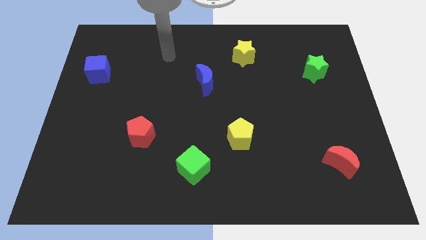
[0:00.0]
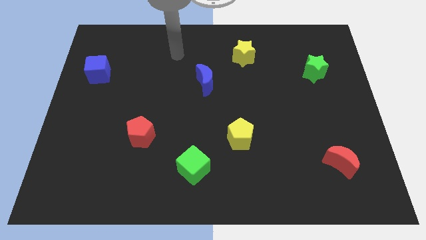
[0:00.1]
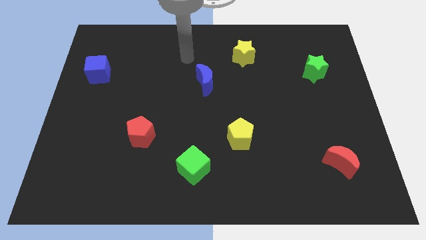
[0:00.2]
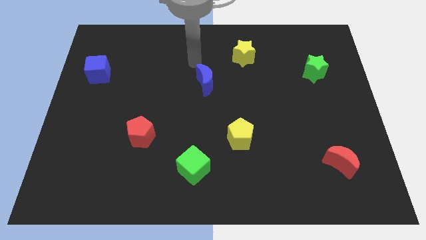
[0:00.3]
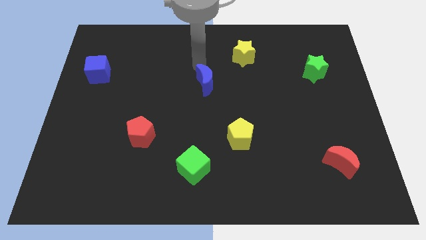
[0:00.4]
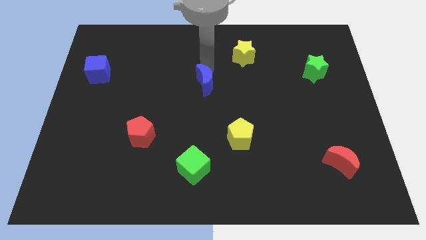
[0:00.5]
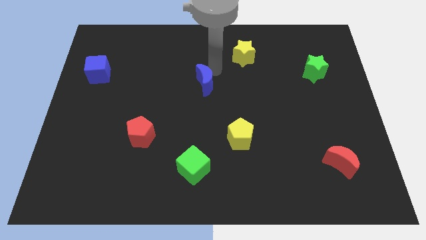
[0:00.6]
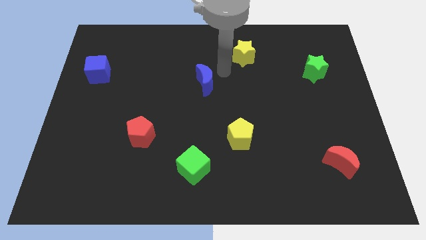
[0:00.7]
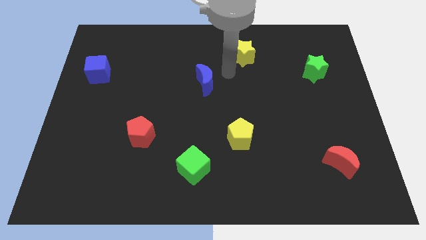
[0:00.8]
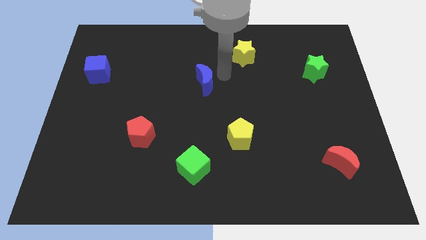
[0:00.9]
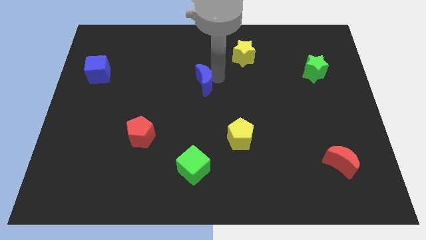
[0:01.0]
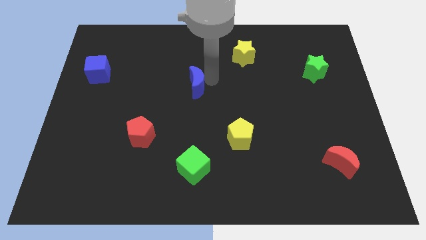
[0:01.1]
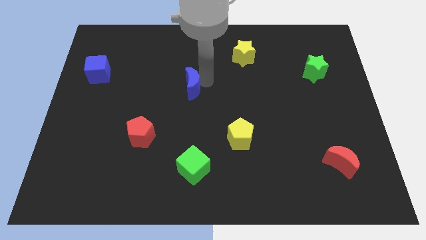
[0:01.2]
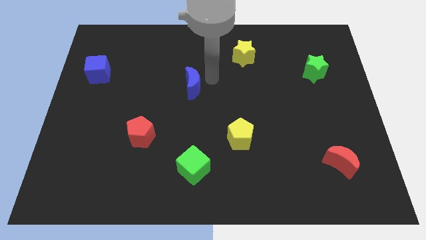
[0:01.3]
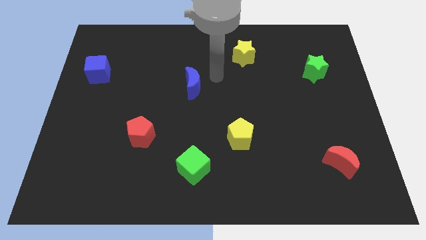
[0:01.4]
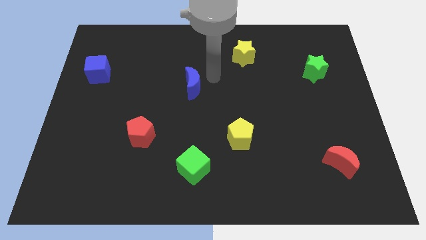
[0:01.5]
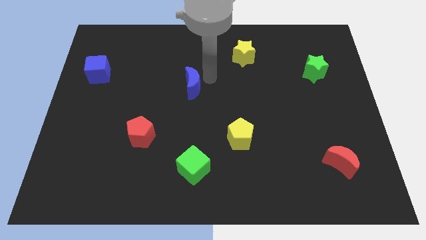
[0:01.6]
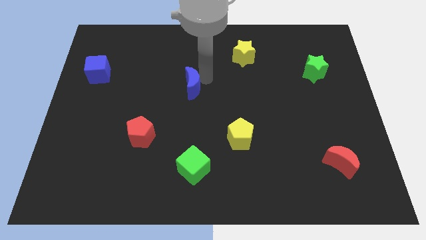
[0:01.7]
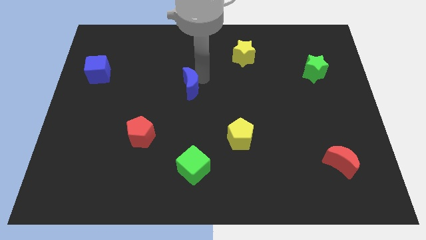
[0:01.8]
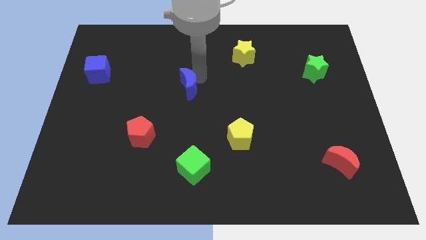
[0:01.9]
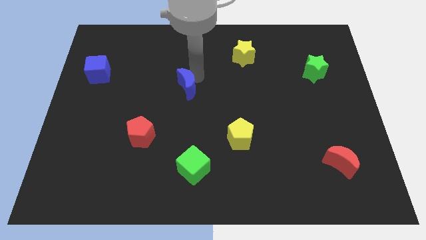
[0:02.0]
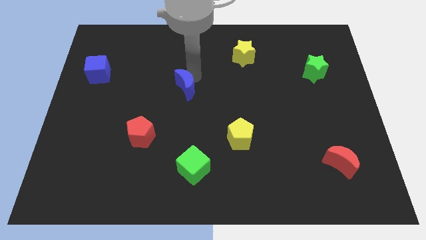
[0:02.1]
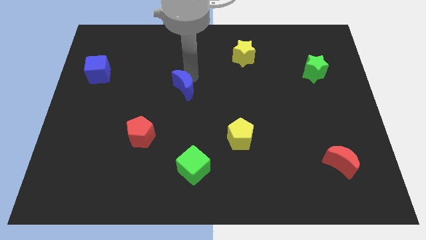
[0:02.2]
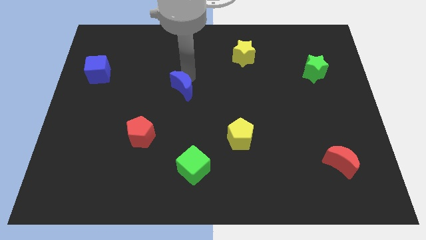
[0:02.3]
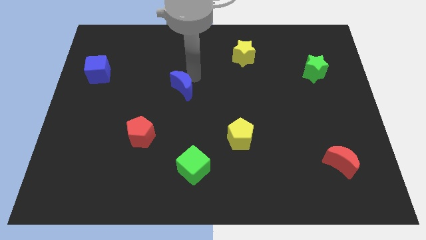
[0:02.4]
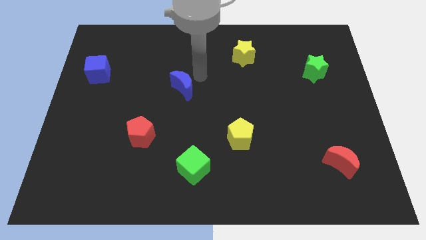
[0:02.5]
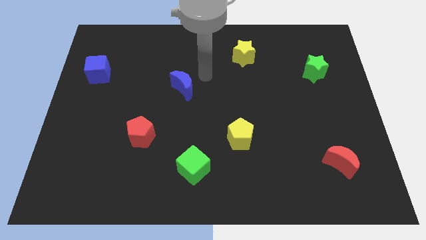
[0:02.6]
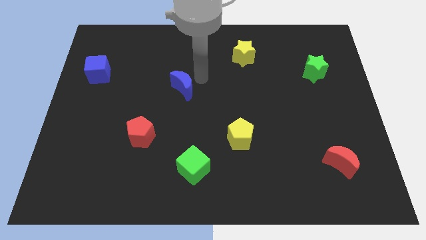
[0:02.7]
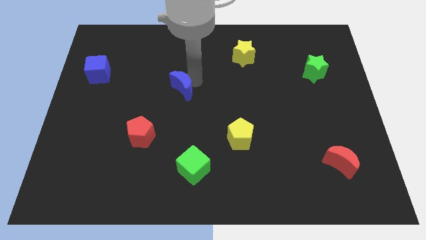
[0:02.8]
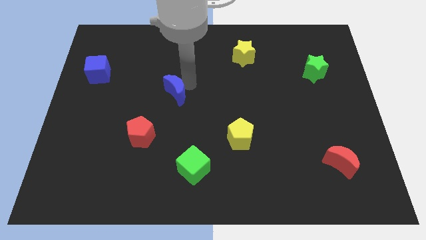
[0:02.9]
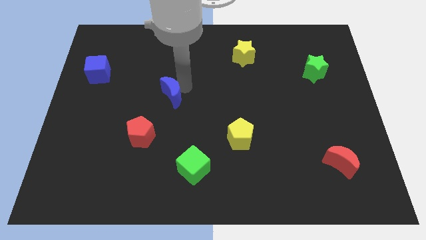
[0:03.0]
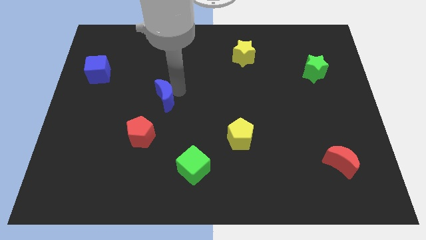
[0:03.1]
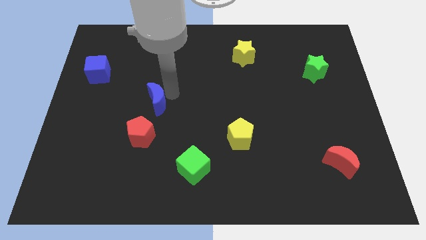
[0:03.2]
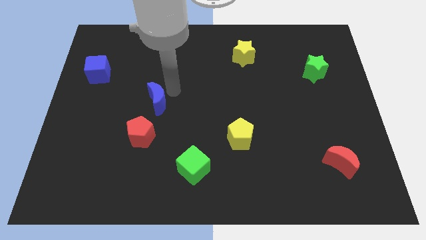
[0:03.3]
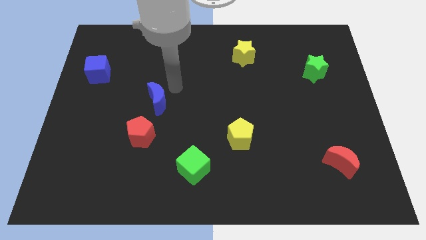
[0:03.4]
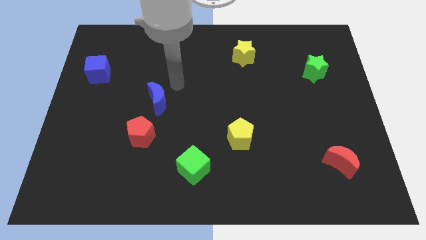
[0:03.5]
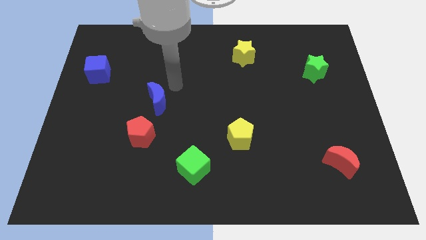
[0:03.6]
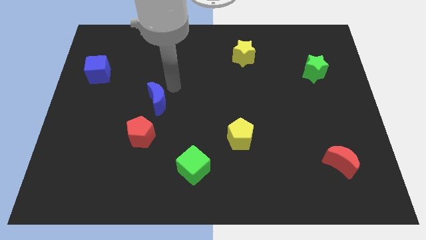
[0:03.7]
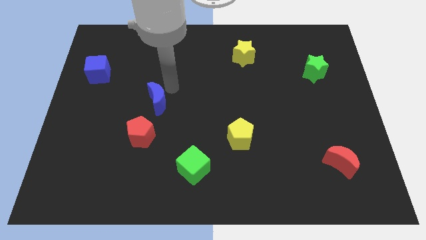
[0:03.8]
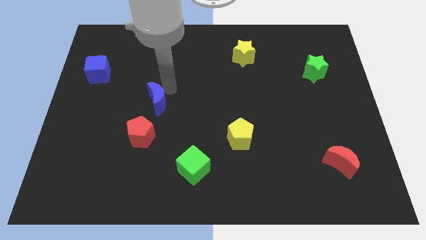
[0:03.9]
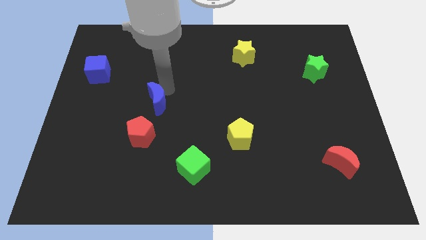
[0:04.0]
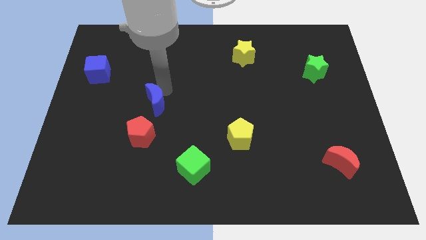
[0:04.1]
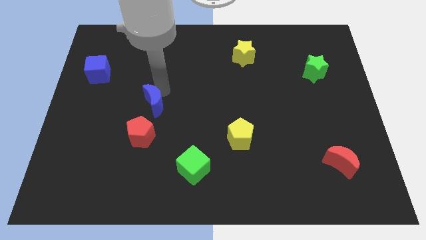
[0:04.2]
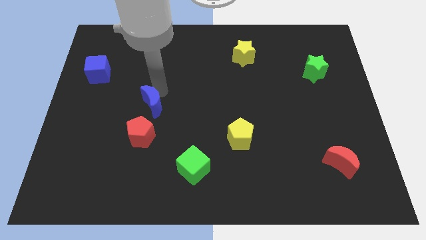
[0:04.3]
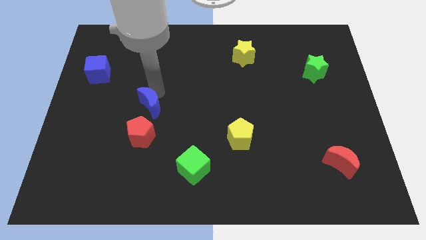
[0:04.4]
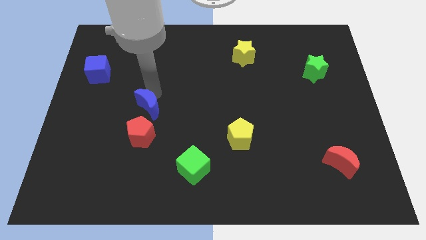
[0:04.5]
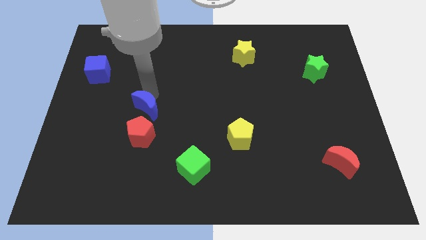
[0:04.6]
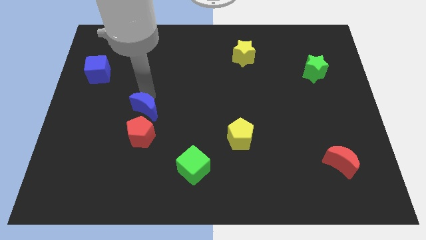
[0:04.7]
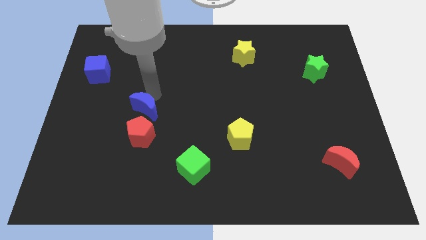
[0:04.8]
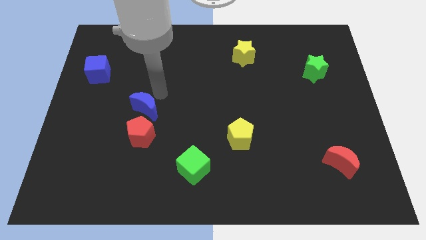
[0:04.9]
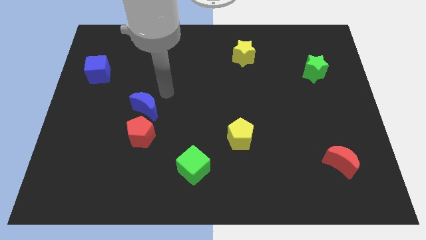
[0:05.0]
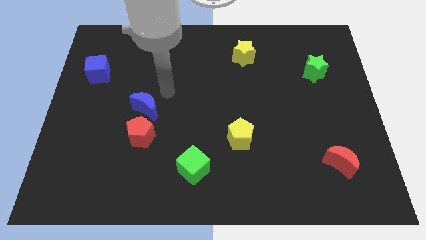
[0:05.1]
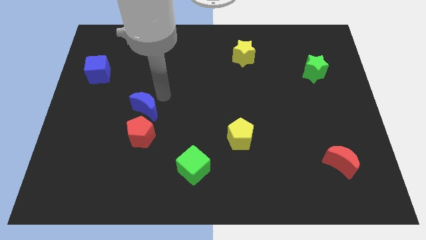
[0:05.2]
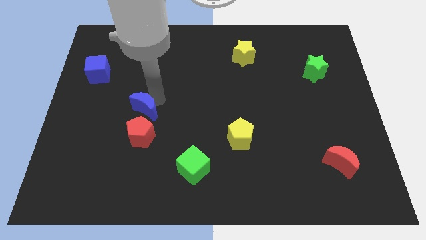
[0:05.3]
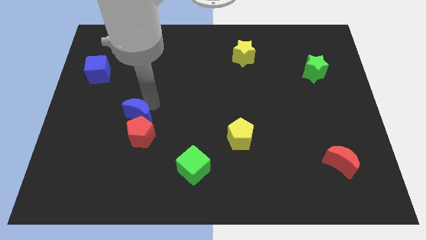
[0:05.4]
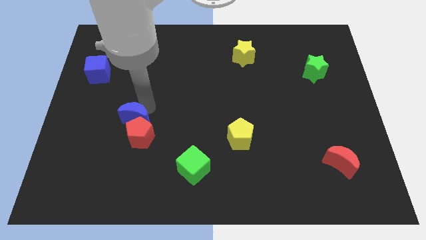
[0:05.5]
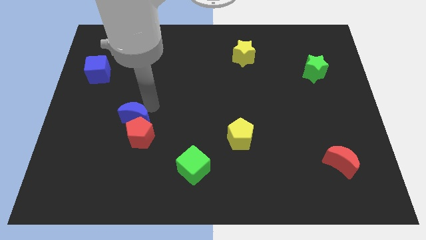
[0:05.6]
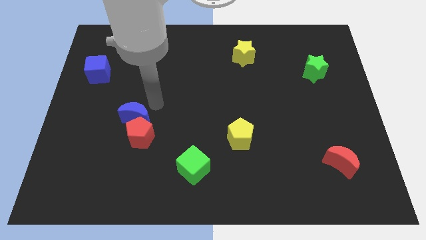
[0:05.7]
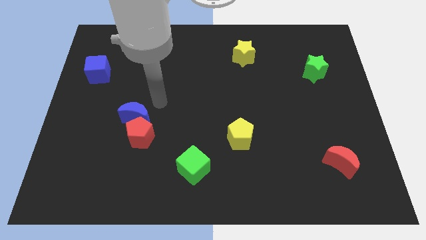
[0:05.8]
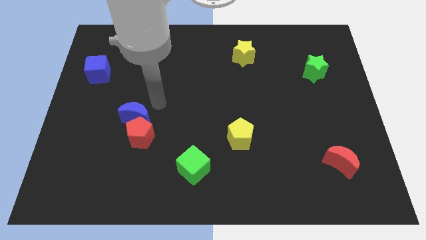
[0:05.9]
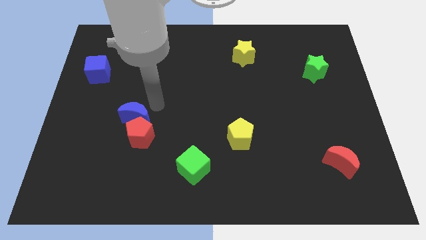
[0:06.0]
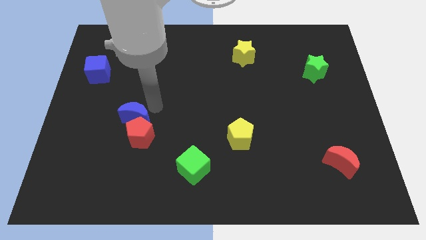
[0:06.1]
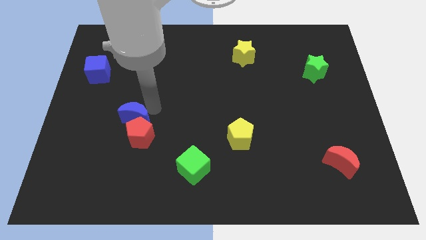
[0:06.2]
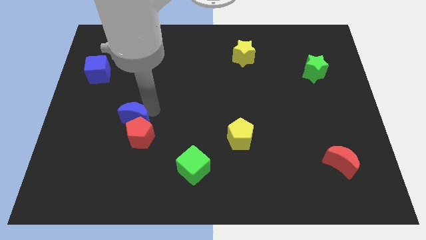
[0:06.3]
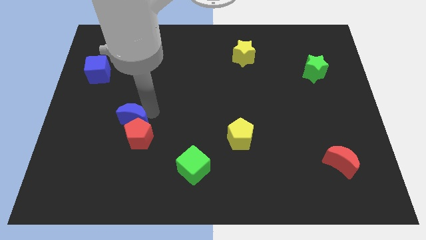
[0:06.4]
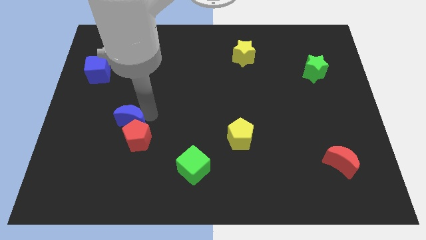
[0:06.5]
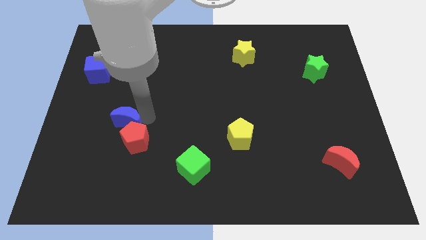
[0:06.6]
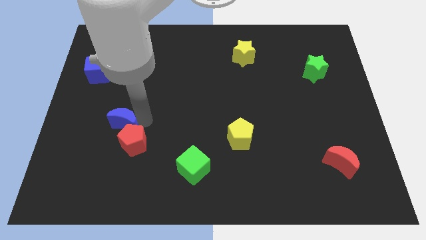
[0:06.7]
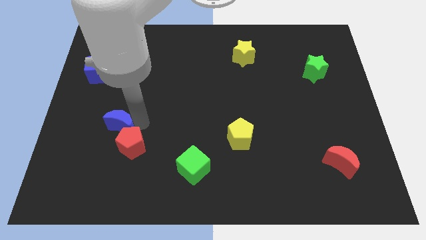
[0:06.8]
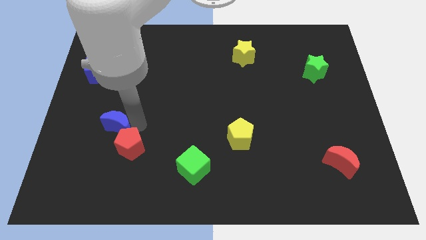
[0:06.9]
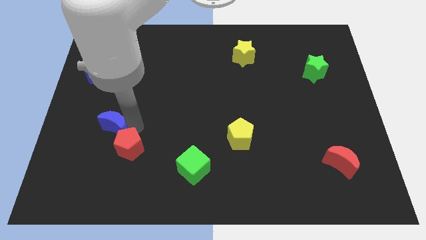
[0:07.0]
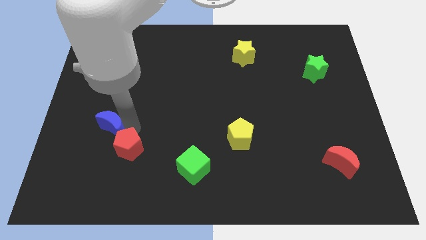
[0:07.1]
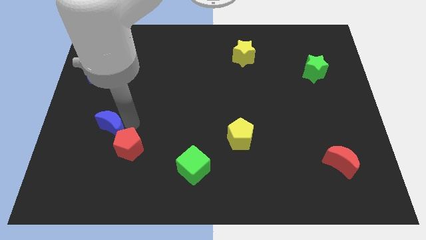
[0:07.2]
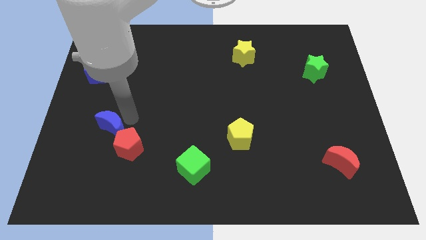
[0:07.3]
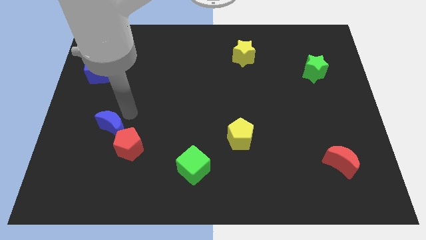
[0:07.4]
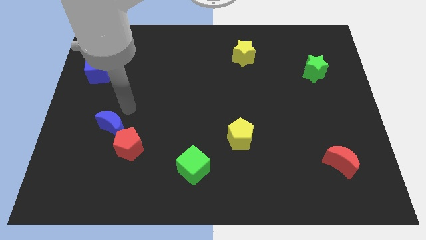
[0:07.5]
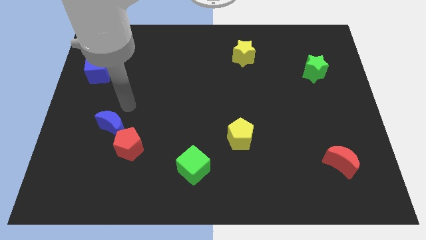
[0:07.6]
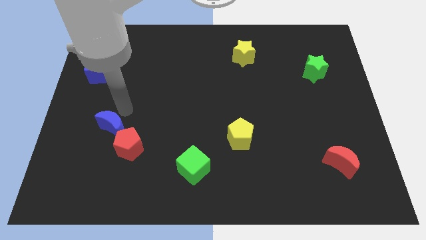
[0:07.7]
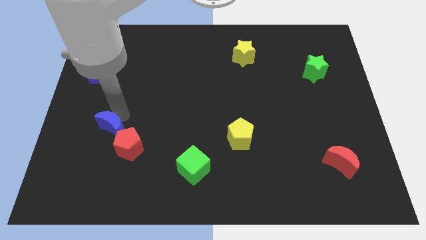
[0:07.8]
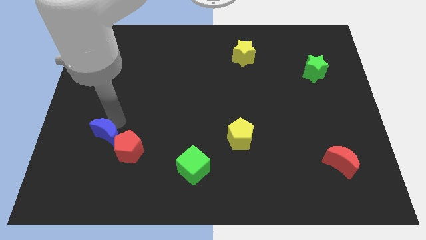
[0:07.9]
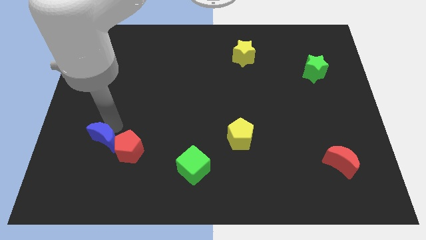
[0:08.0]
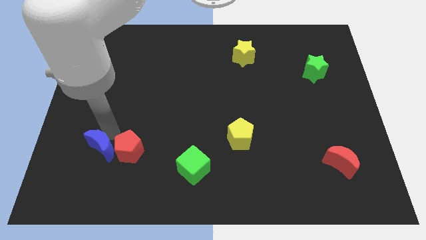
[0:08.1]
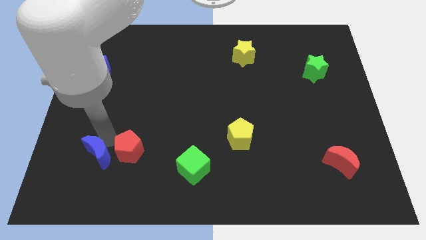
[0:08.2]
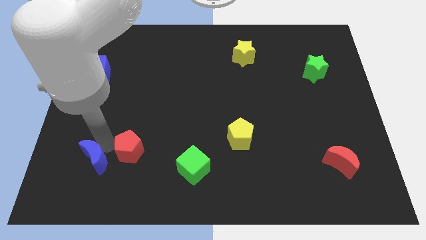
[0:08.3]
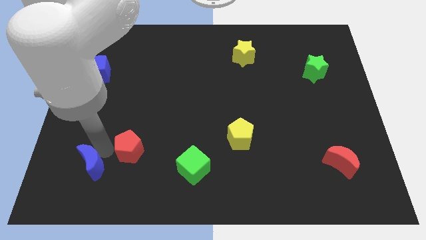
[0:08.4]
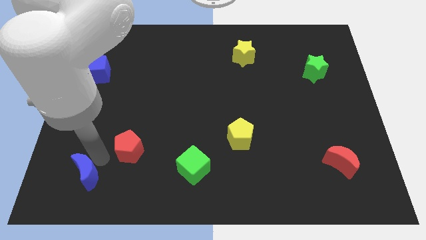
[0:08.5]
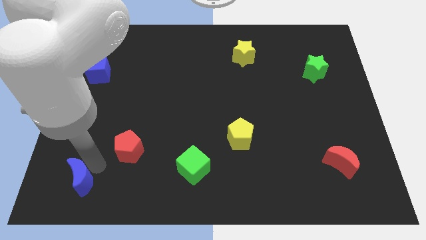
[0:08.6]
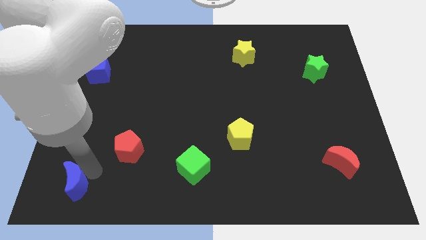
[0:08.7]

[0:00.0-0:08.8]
slide the blue moon to the bottom left corner
